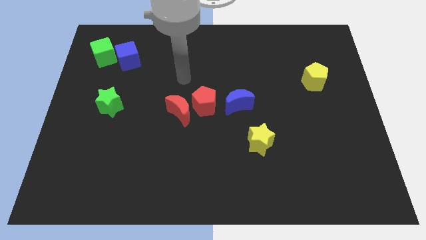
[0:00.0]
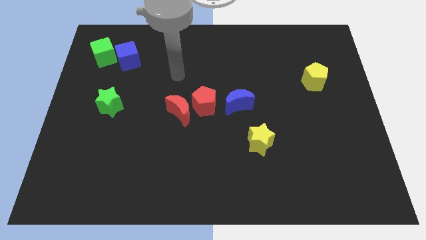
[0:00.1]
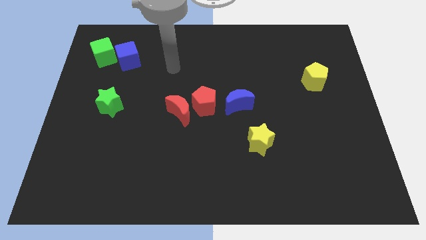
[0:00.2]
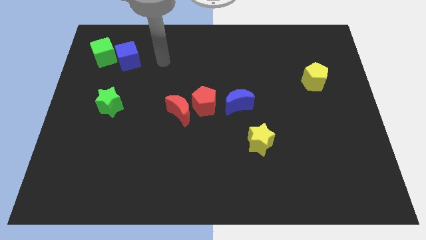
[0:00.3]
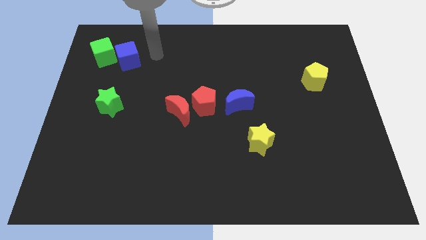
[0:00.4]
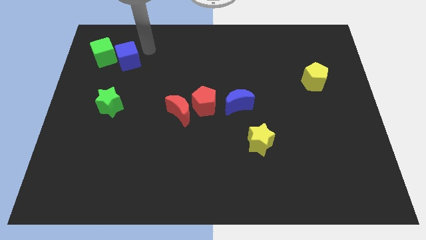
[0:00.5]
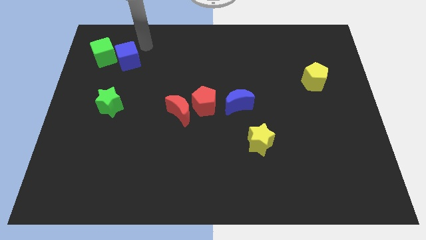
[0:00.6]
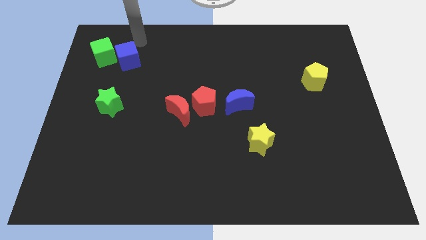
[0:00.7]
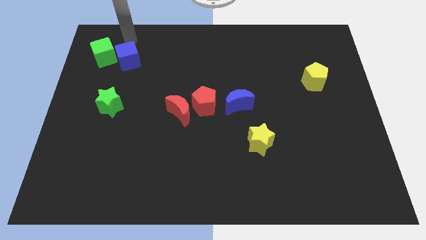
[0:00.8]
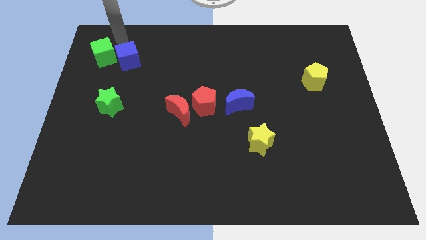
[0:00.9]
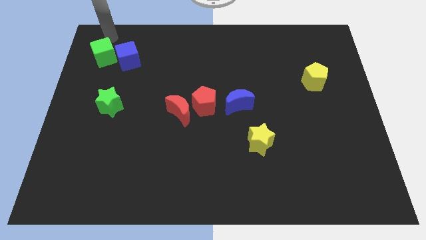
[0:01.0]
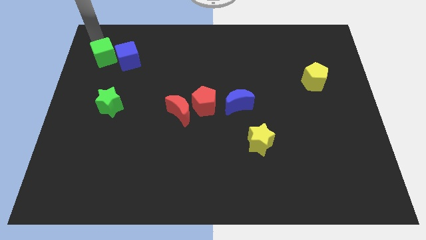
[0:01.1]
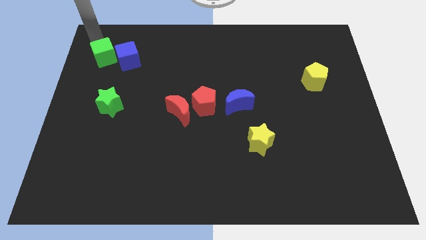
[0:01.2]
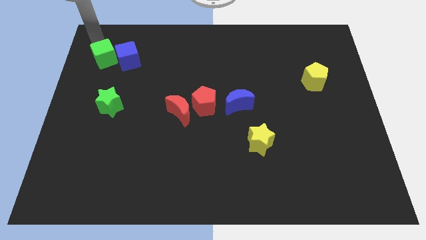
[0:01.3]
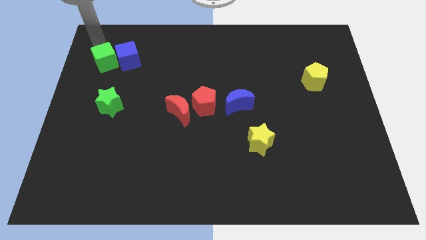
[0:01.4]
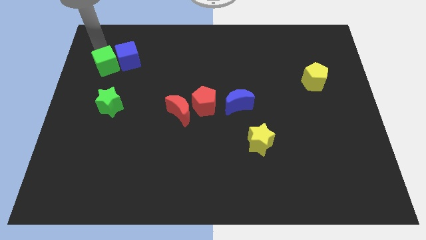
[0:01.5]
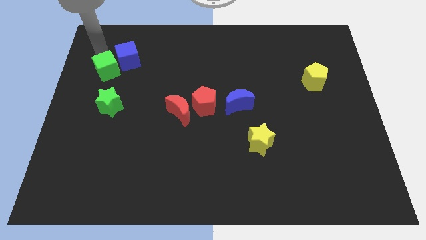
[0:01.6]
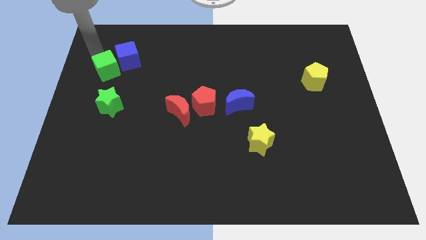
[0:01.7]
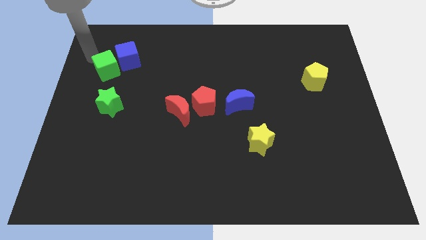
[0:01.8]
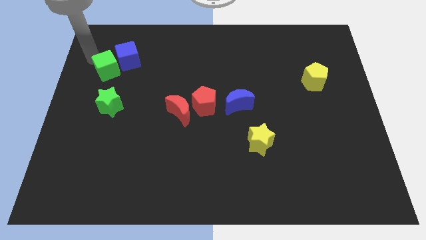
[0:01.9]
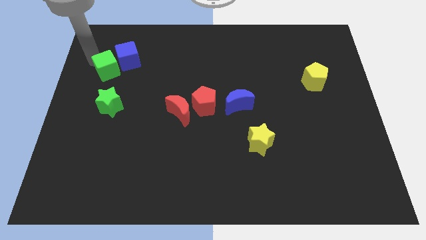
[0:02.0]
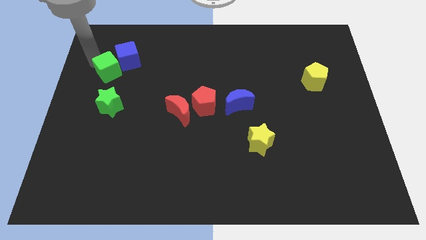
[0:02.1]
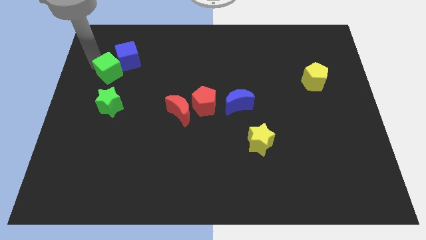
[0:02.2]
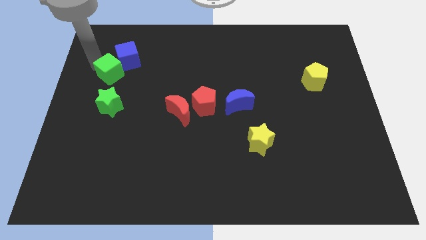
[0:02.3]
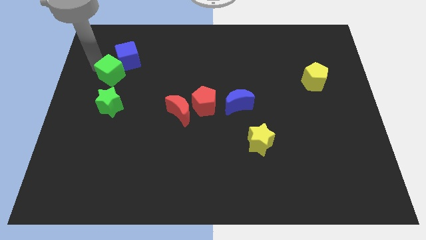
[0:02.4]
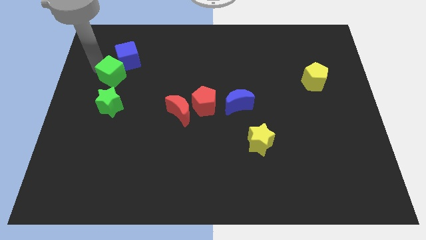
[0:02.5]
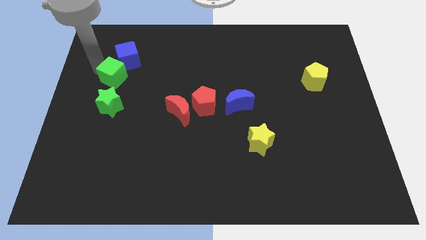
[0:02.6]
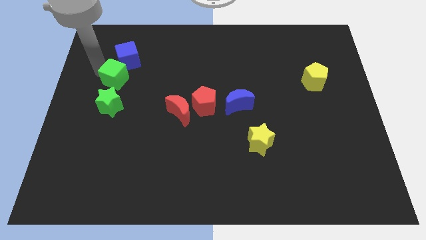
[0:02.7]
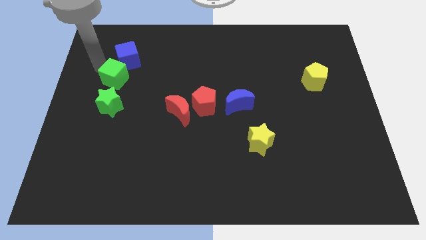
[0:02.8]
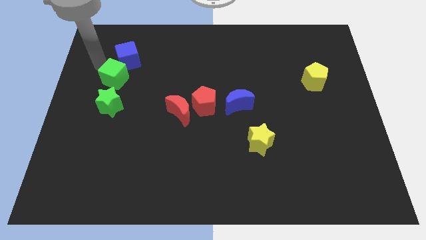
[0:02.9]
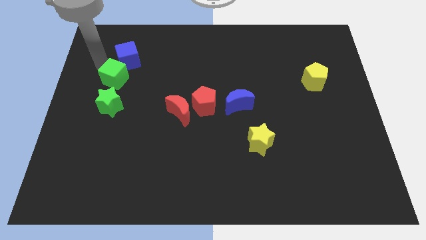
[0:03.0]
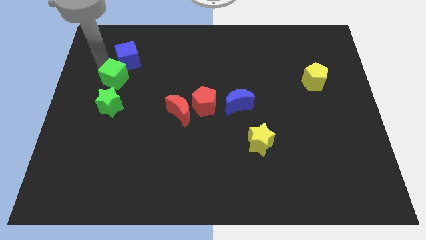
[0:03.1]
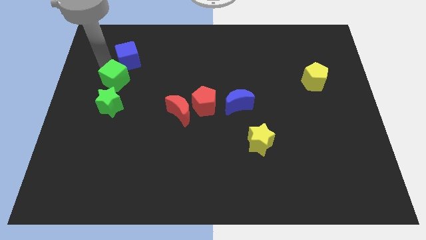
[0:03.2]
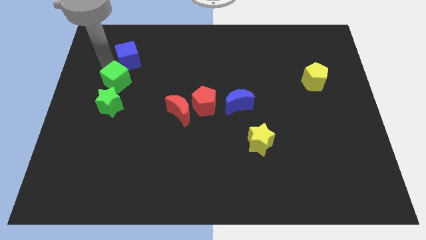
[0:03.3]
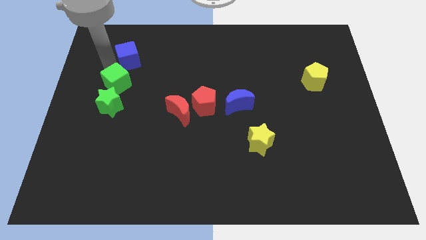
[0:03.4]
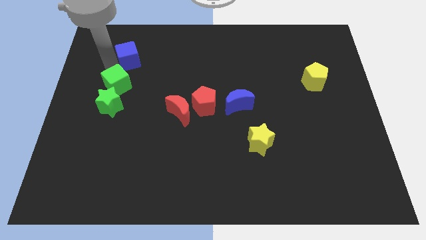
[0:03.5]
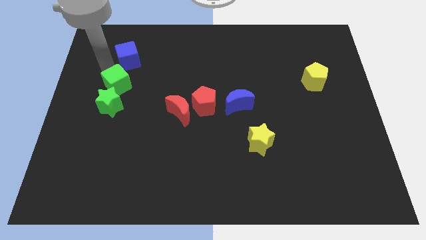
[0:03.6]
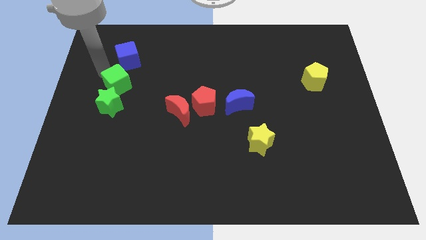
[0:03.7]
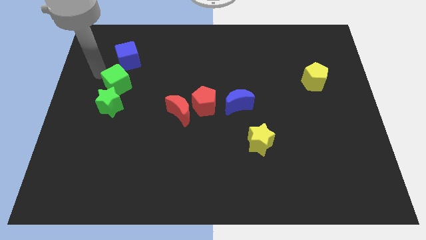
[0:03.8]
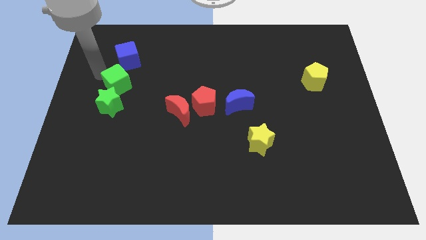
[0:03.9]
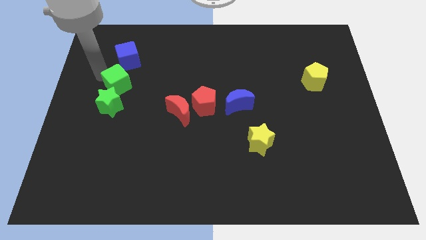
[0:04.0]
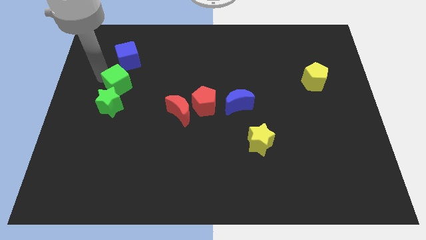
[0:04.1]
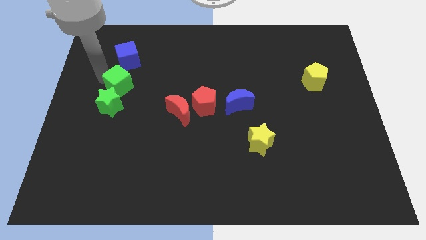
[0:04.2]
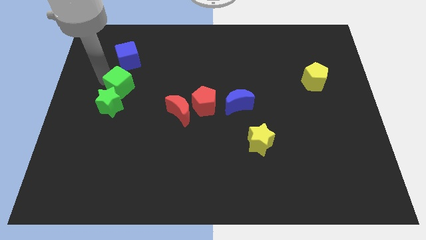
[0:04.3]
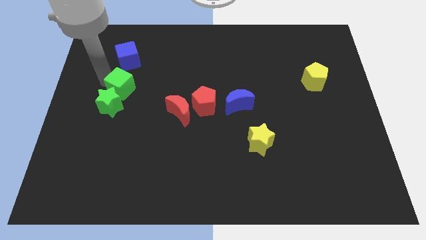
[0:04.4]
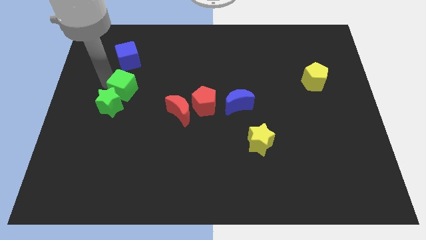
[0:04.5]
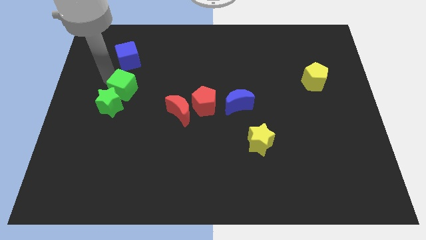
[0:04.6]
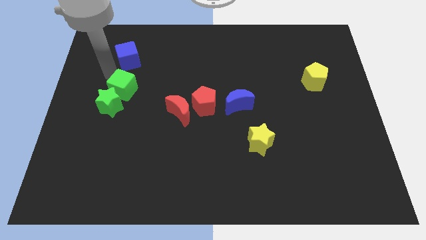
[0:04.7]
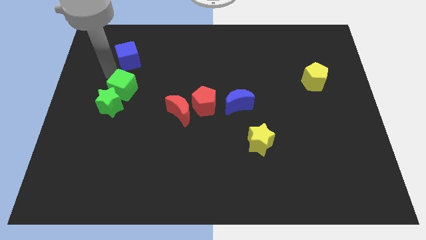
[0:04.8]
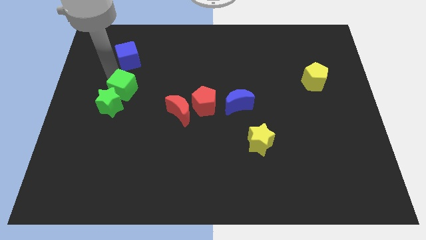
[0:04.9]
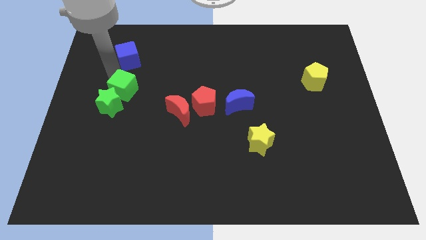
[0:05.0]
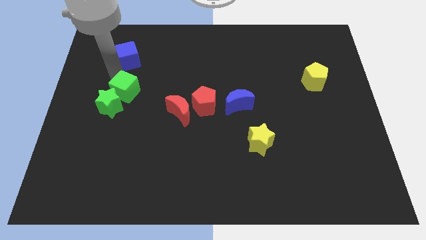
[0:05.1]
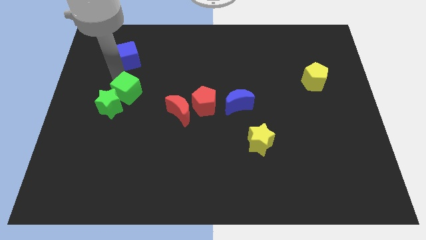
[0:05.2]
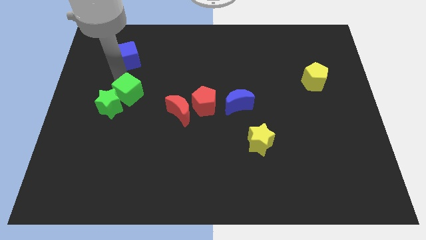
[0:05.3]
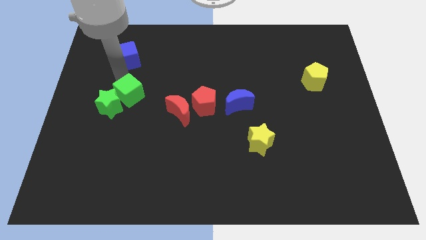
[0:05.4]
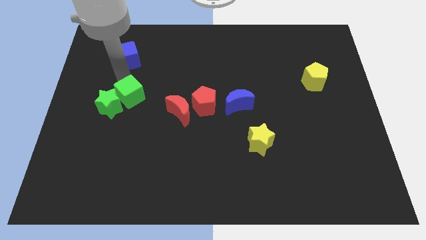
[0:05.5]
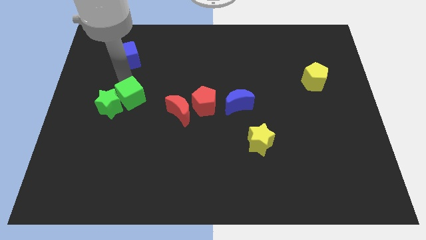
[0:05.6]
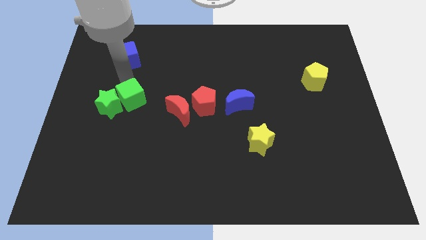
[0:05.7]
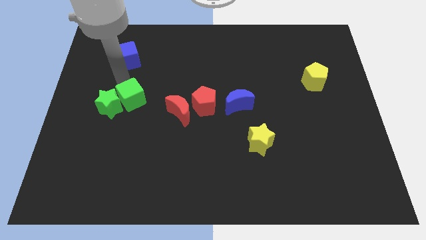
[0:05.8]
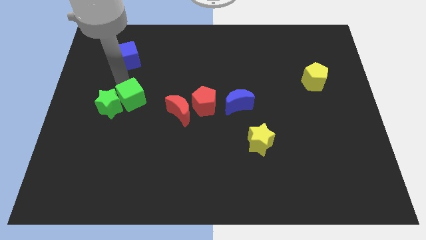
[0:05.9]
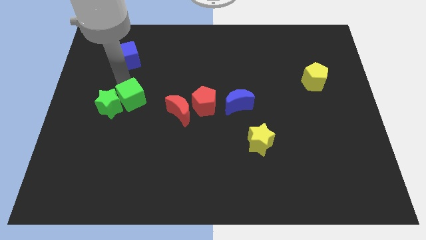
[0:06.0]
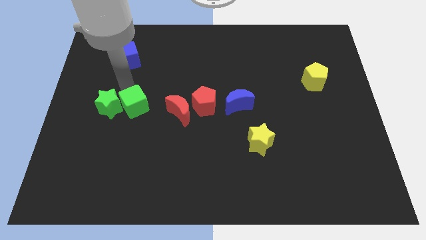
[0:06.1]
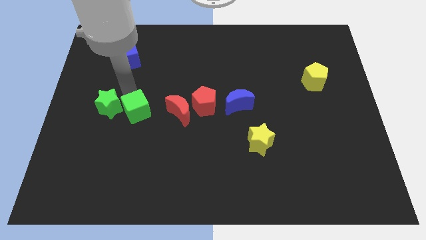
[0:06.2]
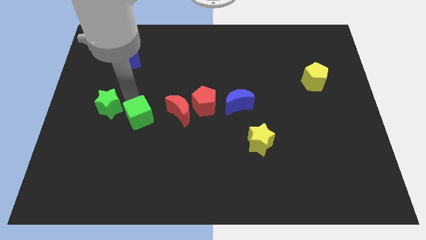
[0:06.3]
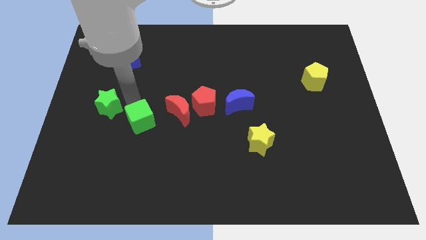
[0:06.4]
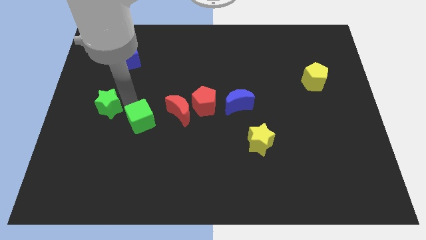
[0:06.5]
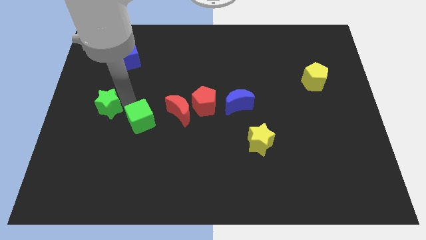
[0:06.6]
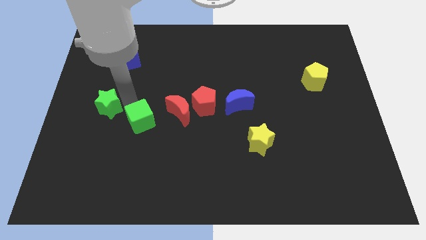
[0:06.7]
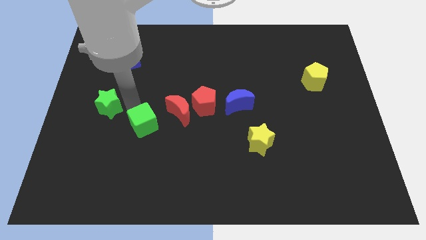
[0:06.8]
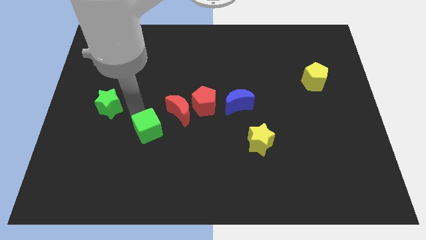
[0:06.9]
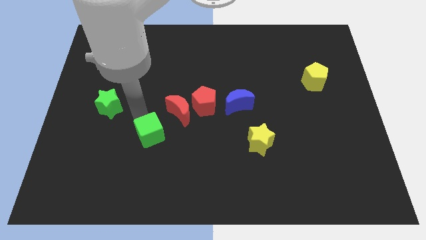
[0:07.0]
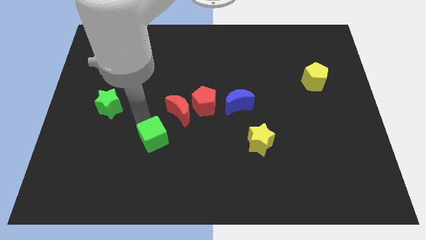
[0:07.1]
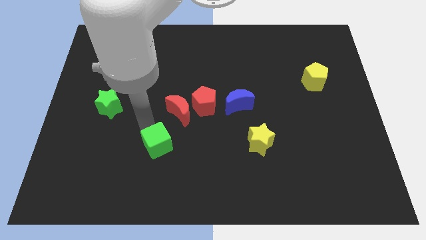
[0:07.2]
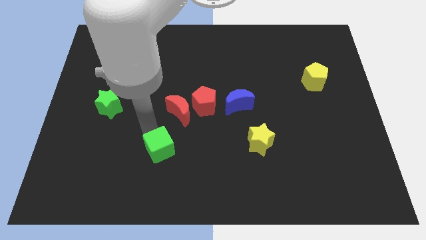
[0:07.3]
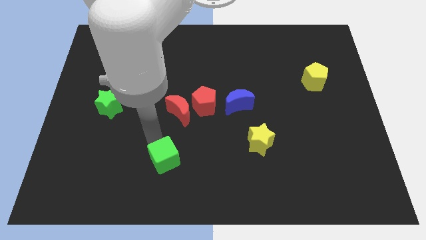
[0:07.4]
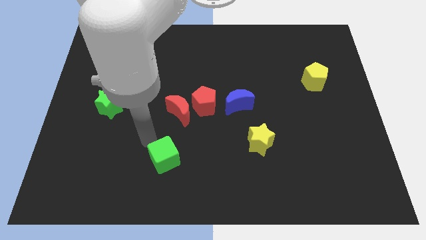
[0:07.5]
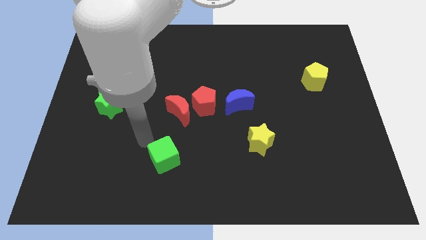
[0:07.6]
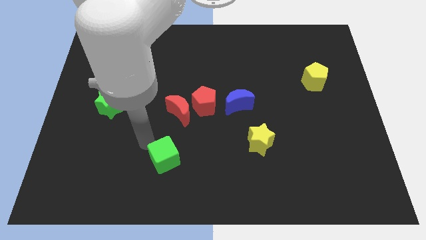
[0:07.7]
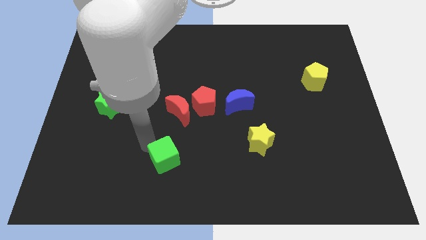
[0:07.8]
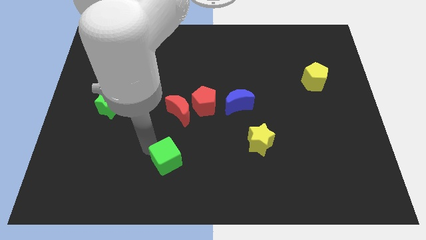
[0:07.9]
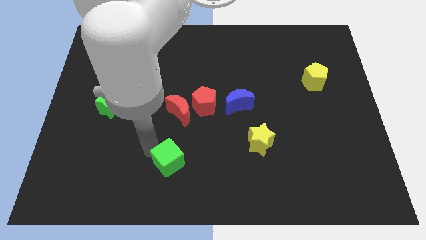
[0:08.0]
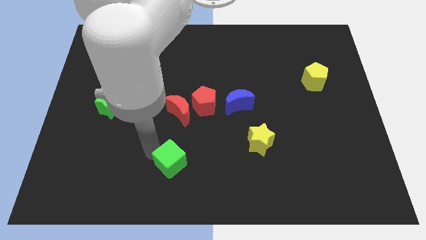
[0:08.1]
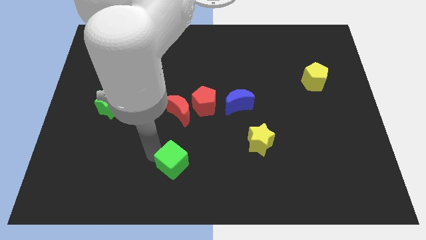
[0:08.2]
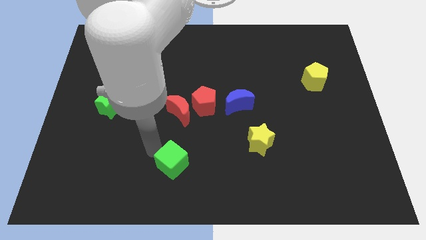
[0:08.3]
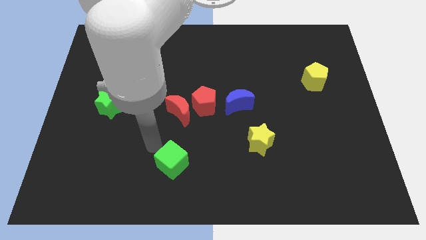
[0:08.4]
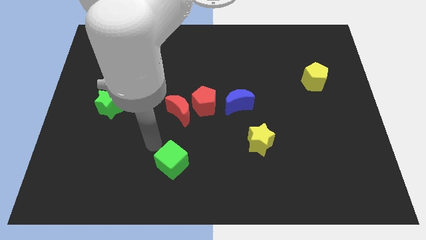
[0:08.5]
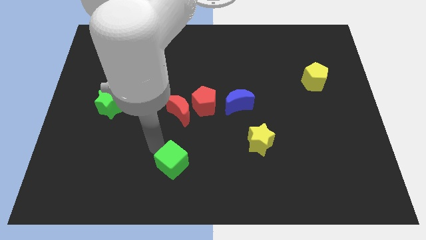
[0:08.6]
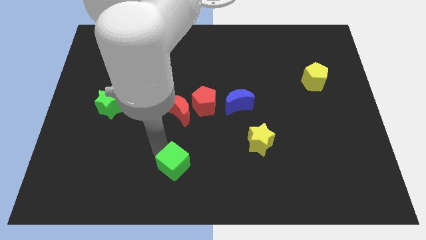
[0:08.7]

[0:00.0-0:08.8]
move the green cube to the bottom side
